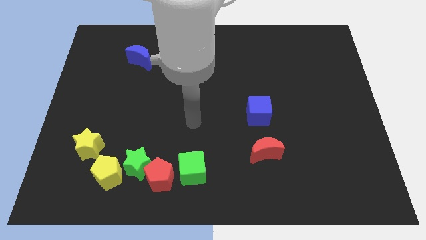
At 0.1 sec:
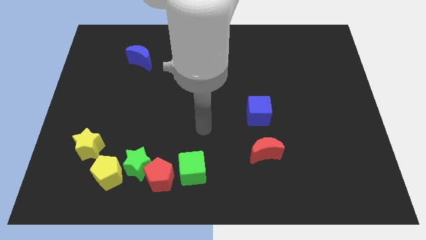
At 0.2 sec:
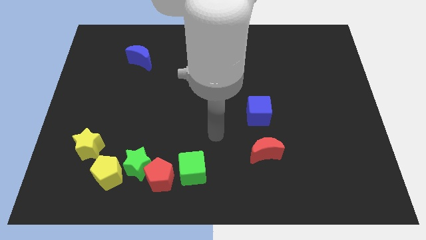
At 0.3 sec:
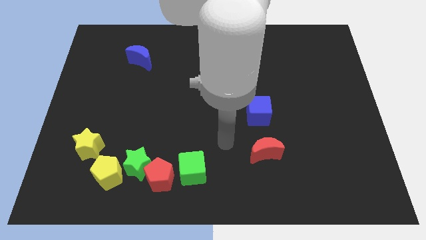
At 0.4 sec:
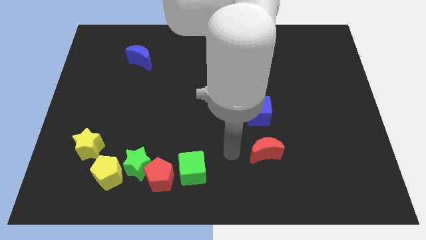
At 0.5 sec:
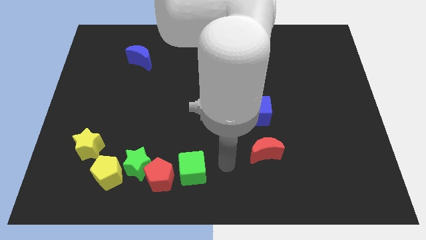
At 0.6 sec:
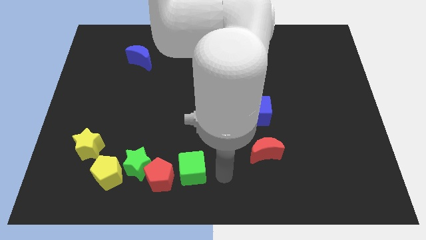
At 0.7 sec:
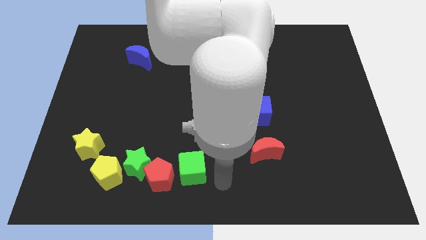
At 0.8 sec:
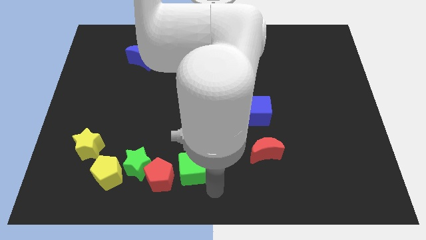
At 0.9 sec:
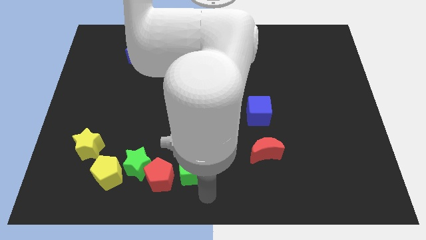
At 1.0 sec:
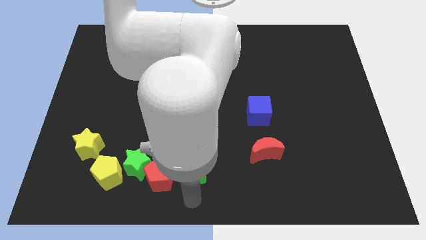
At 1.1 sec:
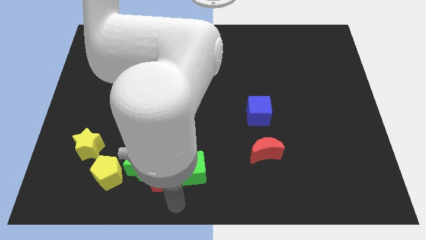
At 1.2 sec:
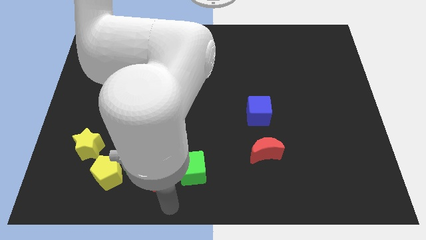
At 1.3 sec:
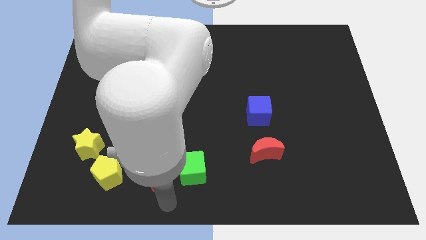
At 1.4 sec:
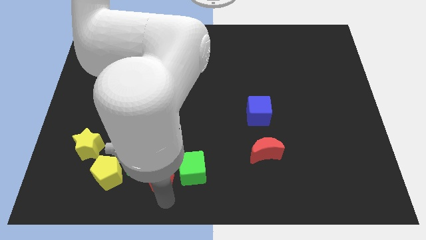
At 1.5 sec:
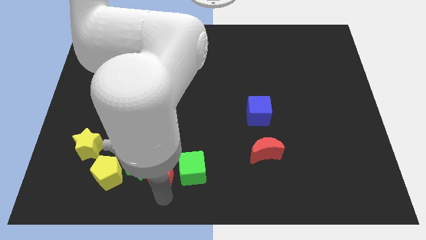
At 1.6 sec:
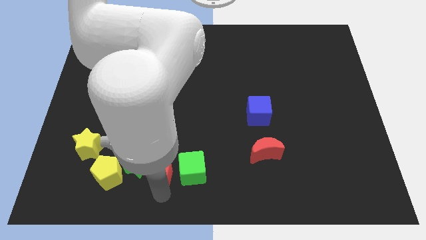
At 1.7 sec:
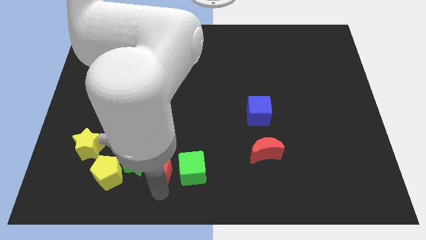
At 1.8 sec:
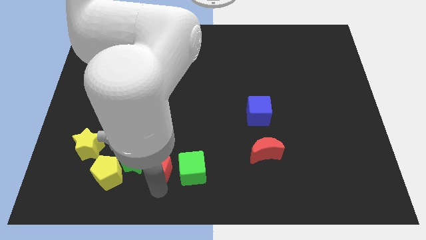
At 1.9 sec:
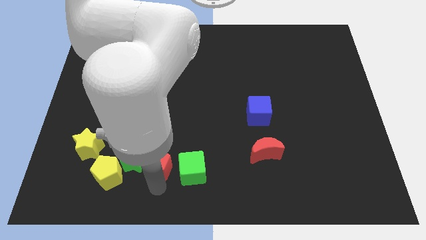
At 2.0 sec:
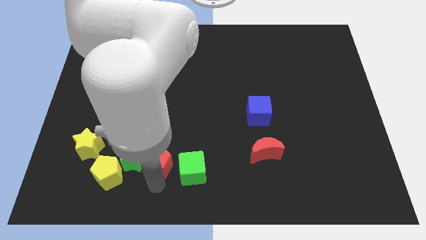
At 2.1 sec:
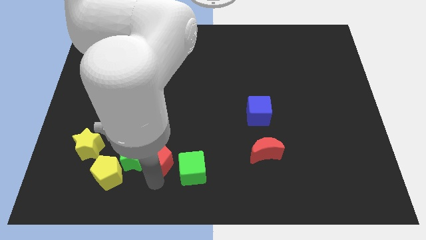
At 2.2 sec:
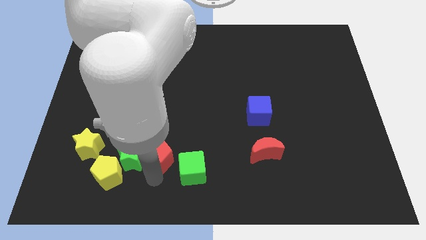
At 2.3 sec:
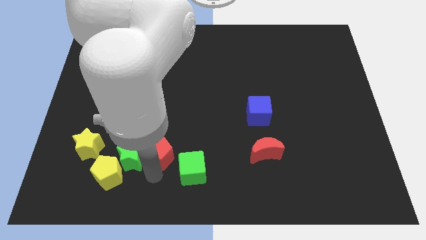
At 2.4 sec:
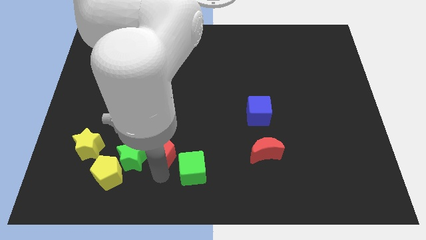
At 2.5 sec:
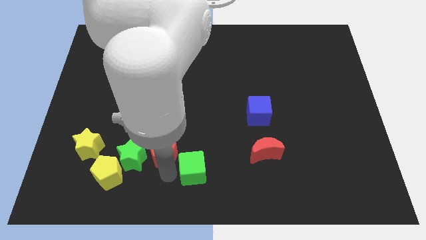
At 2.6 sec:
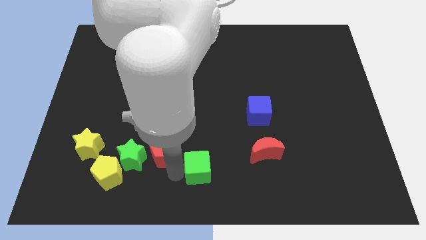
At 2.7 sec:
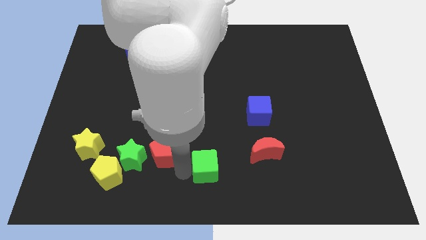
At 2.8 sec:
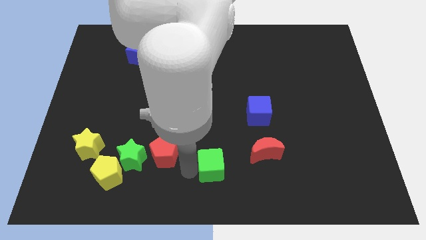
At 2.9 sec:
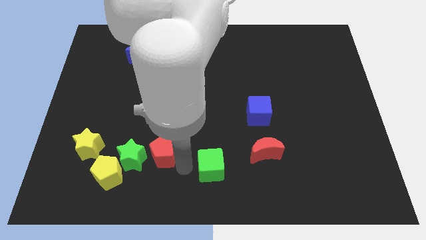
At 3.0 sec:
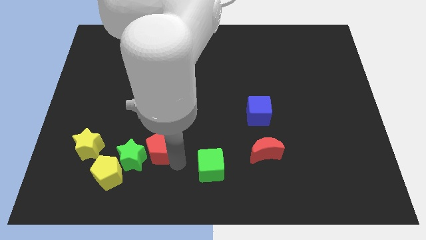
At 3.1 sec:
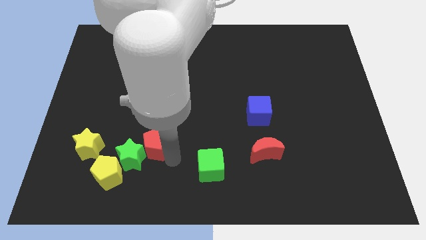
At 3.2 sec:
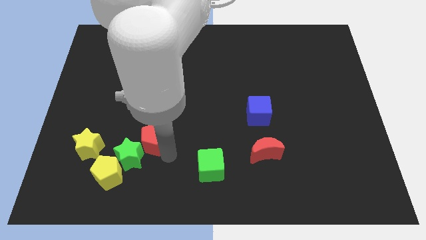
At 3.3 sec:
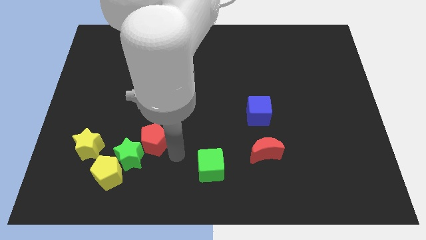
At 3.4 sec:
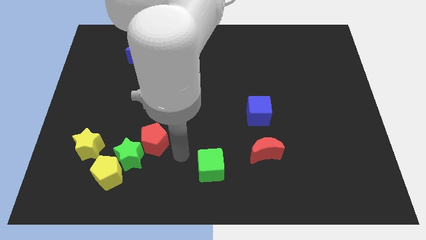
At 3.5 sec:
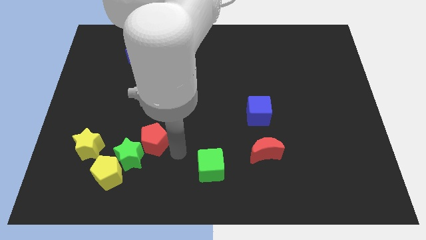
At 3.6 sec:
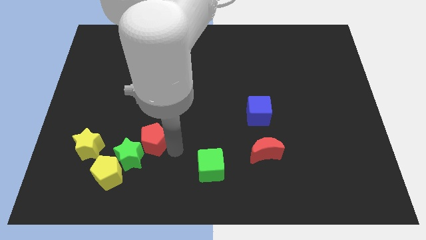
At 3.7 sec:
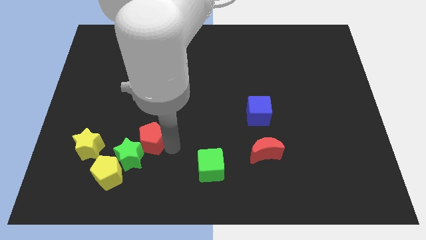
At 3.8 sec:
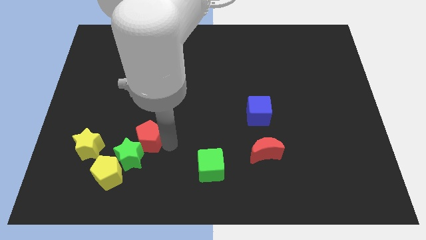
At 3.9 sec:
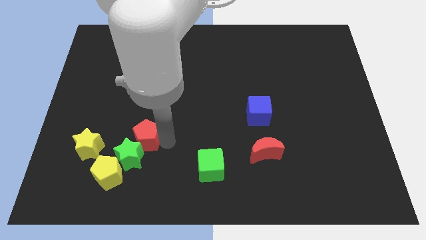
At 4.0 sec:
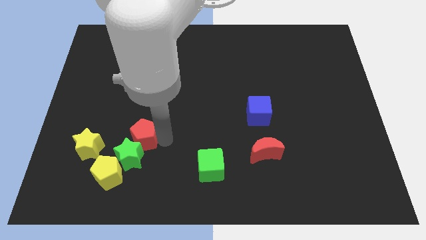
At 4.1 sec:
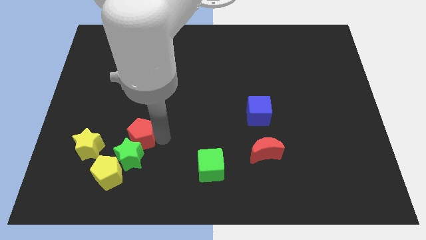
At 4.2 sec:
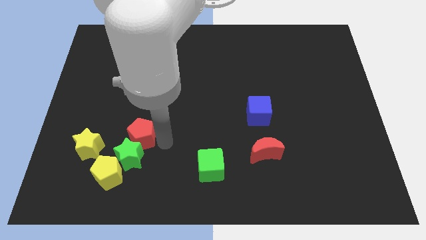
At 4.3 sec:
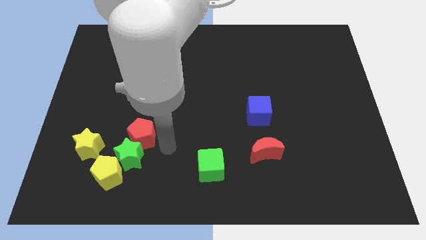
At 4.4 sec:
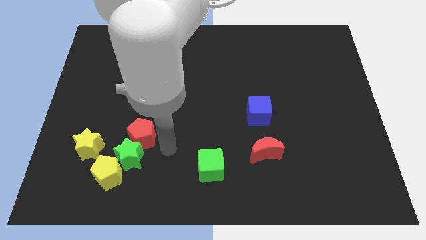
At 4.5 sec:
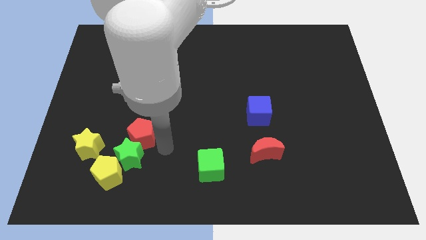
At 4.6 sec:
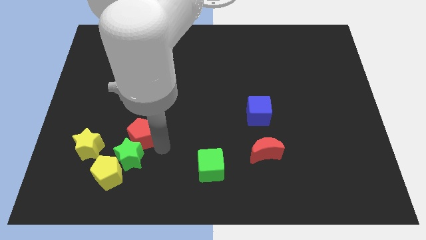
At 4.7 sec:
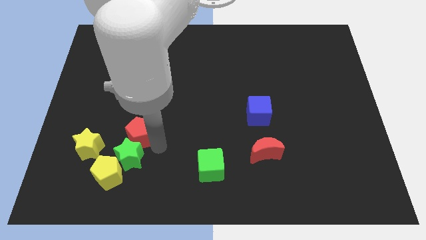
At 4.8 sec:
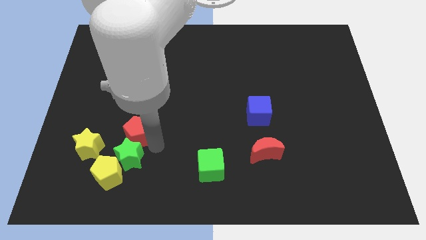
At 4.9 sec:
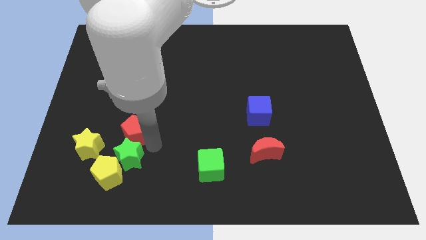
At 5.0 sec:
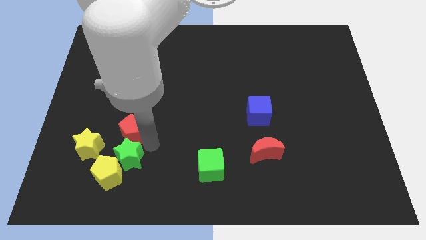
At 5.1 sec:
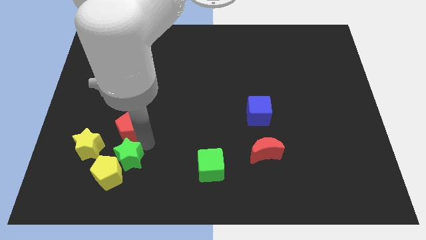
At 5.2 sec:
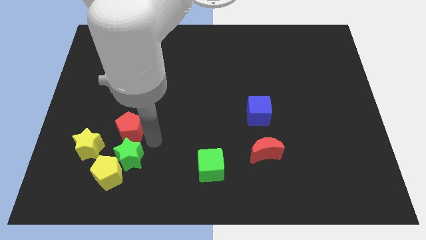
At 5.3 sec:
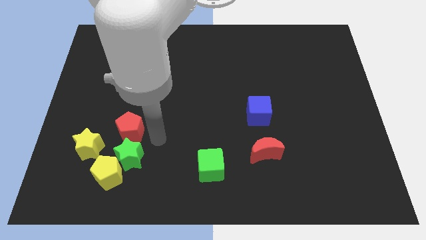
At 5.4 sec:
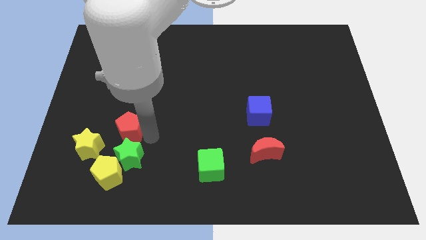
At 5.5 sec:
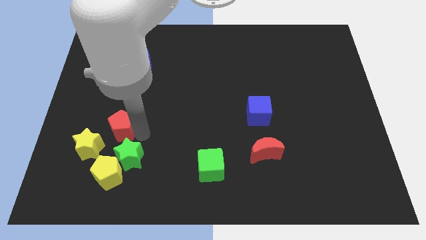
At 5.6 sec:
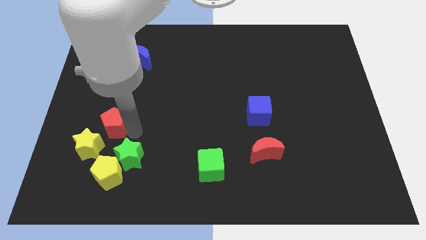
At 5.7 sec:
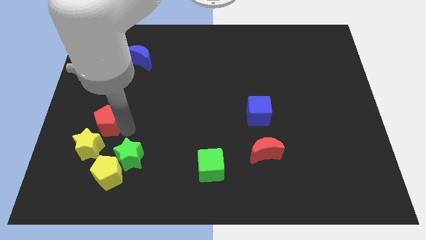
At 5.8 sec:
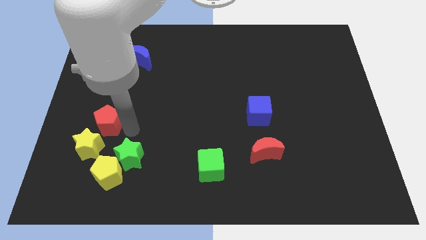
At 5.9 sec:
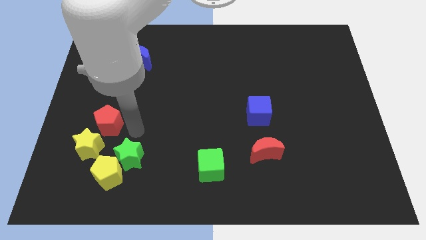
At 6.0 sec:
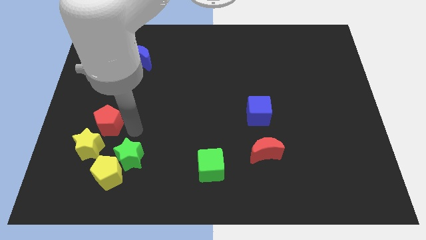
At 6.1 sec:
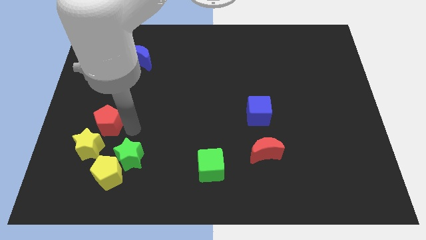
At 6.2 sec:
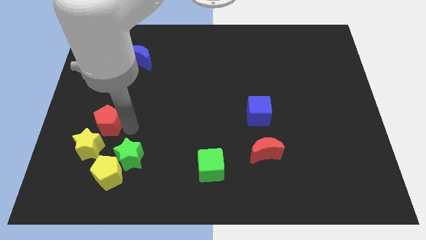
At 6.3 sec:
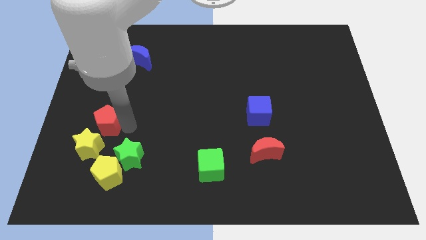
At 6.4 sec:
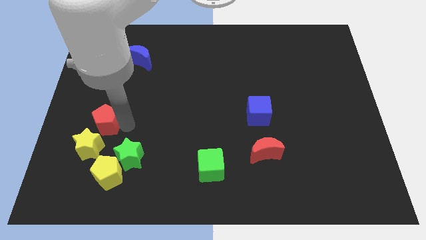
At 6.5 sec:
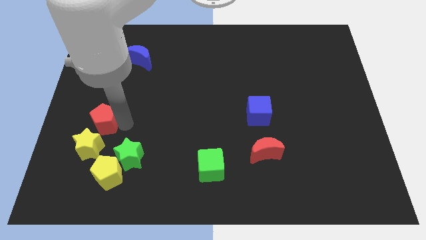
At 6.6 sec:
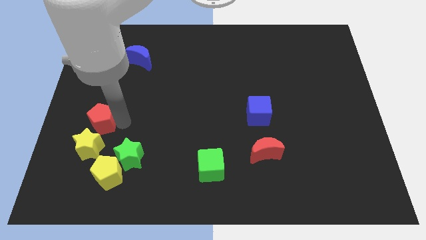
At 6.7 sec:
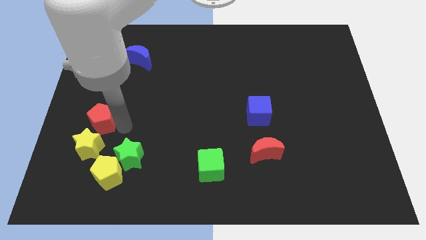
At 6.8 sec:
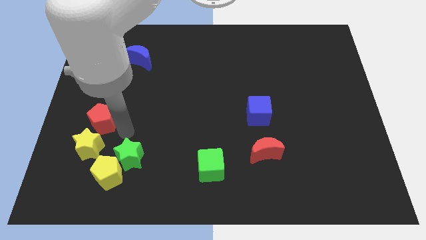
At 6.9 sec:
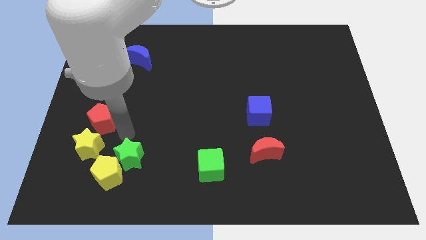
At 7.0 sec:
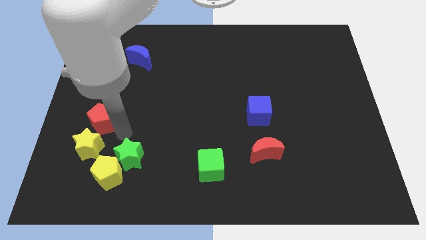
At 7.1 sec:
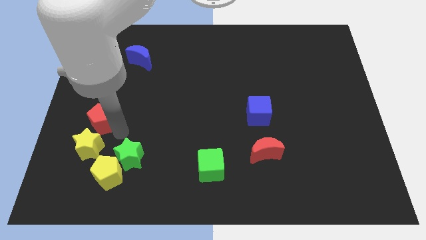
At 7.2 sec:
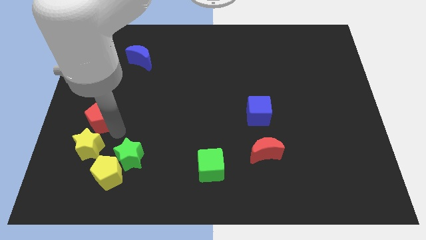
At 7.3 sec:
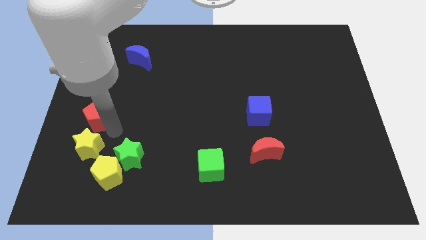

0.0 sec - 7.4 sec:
push the red pentagon to the left side
